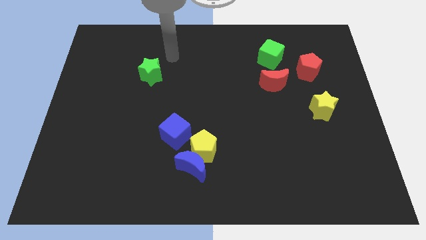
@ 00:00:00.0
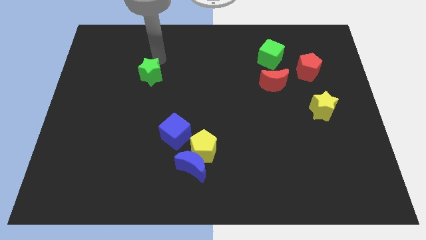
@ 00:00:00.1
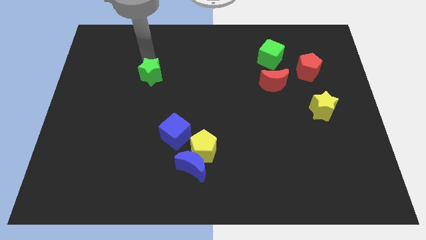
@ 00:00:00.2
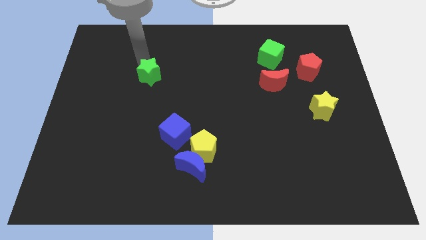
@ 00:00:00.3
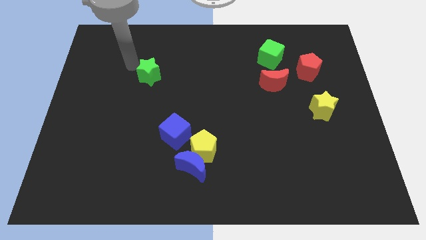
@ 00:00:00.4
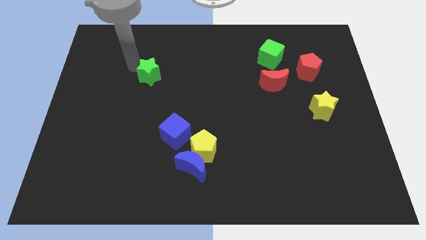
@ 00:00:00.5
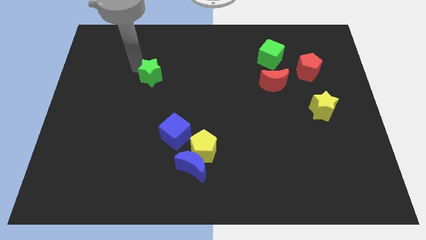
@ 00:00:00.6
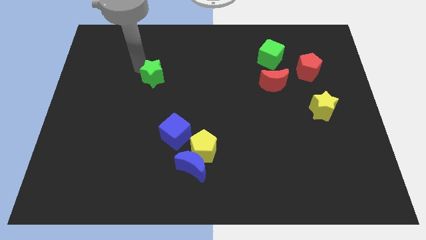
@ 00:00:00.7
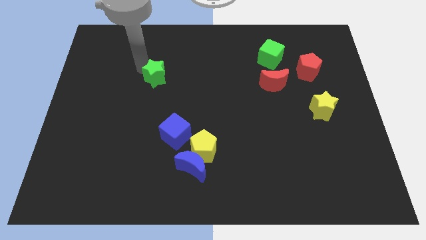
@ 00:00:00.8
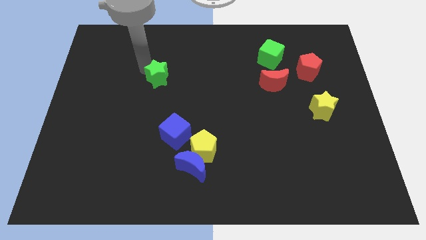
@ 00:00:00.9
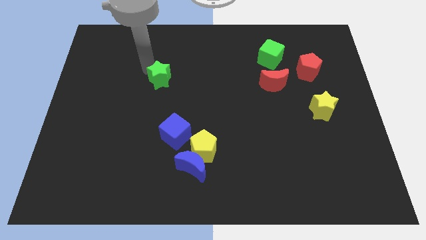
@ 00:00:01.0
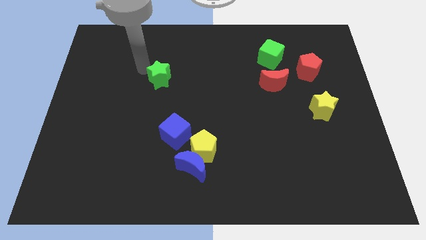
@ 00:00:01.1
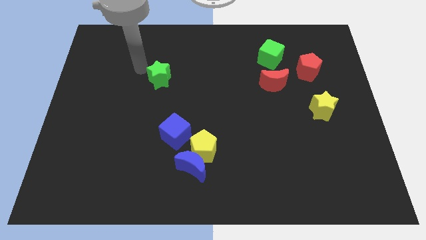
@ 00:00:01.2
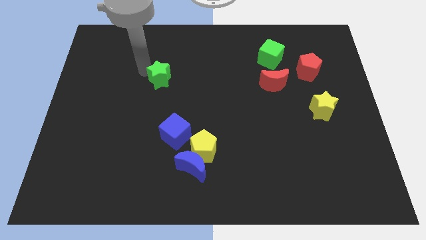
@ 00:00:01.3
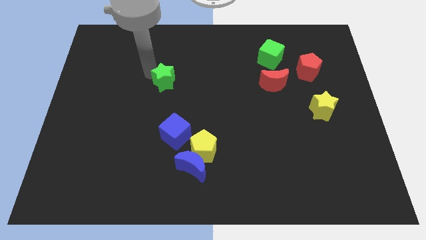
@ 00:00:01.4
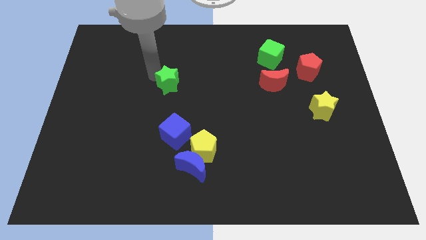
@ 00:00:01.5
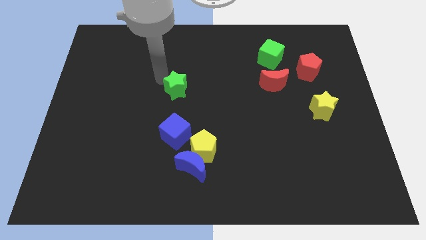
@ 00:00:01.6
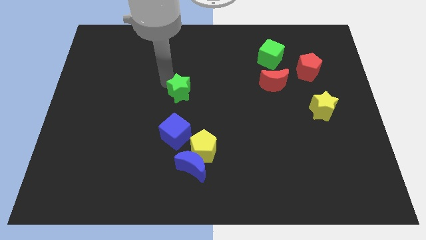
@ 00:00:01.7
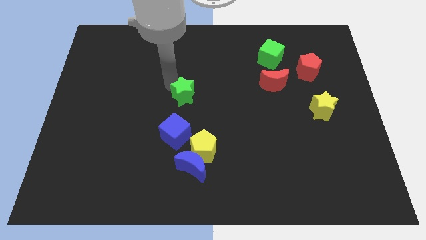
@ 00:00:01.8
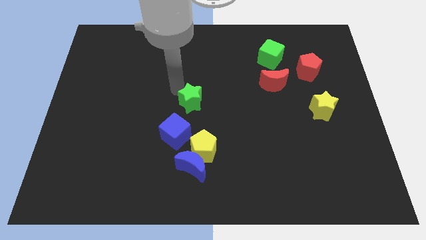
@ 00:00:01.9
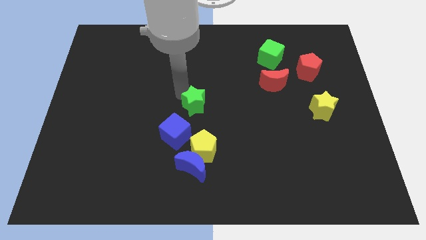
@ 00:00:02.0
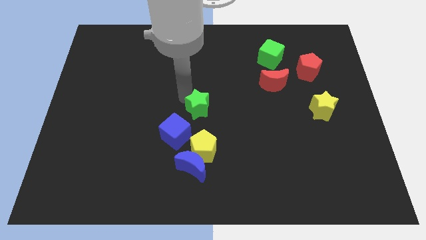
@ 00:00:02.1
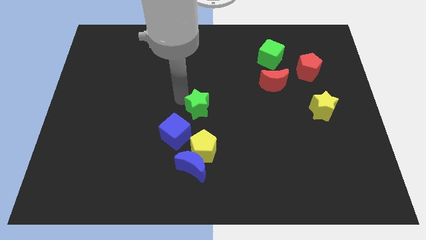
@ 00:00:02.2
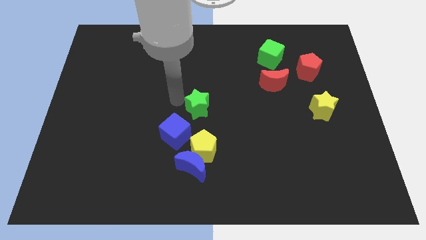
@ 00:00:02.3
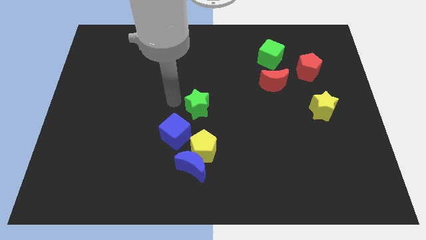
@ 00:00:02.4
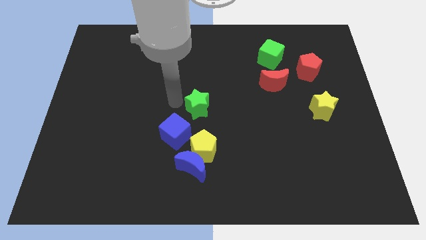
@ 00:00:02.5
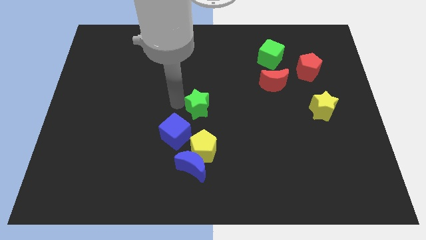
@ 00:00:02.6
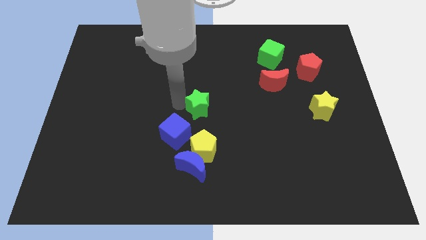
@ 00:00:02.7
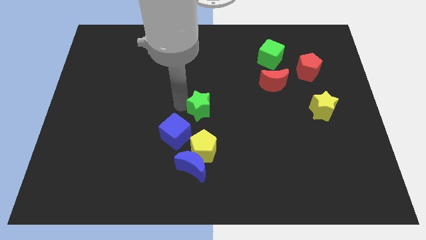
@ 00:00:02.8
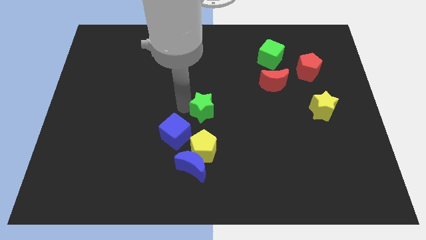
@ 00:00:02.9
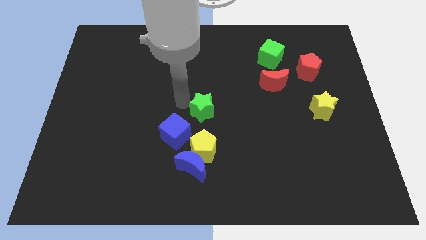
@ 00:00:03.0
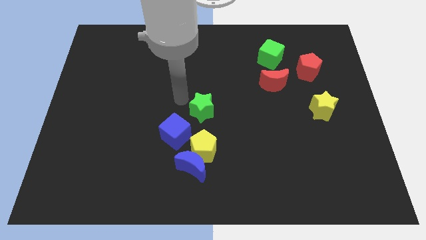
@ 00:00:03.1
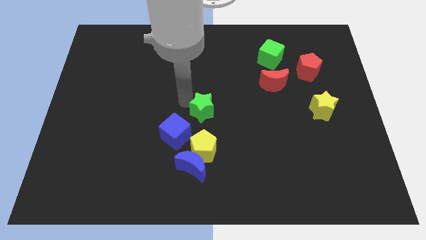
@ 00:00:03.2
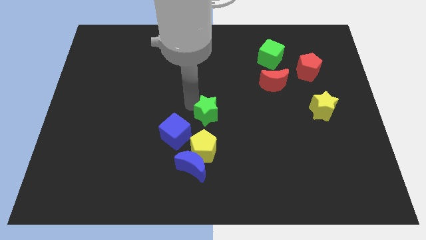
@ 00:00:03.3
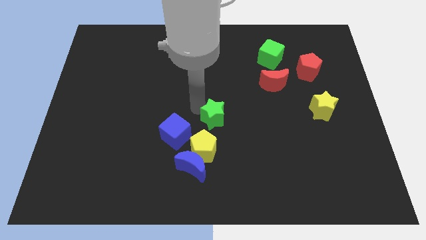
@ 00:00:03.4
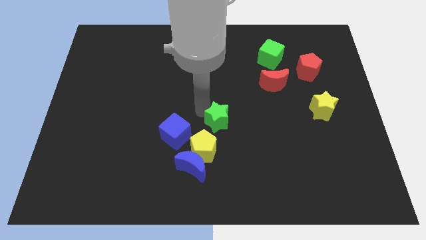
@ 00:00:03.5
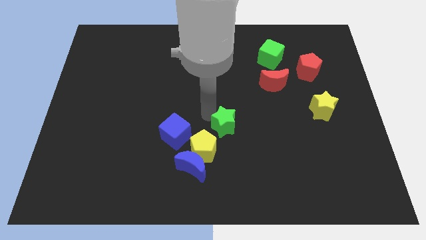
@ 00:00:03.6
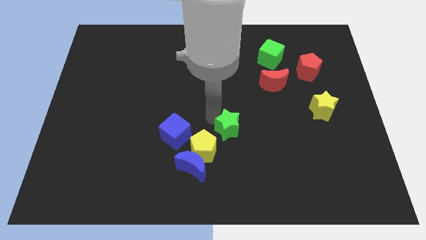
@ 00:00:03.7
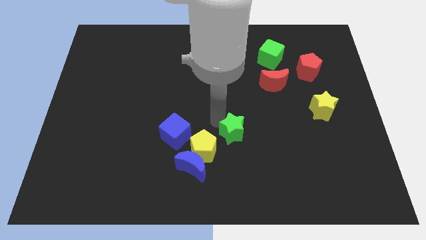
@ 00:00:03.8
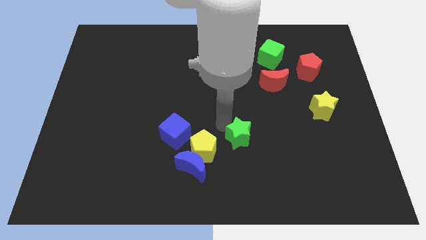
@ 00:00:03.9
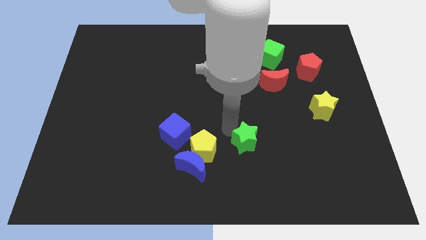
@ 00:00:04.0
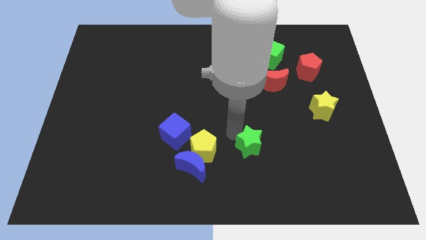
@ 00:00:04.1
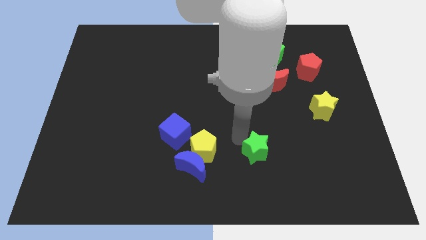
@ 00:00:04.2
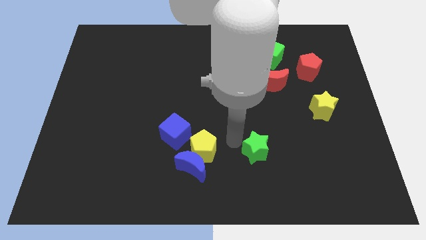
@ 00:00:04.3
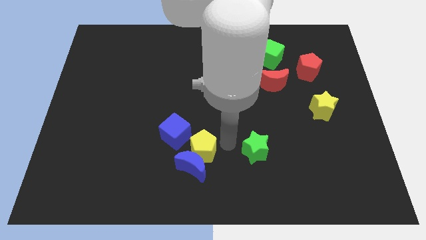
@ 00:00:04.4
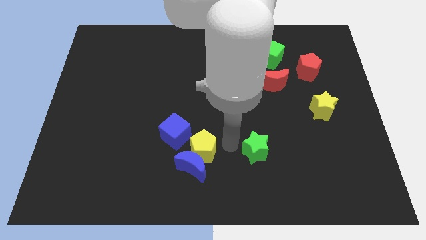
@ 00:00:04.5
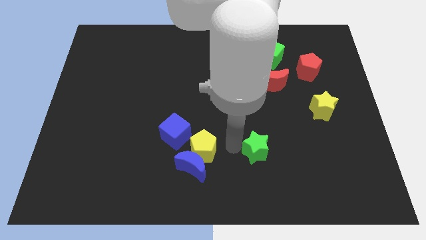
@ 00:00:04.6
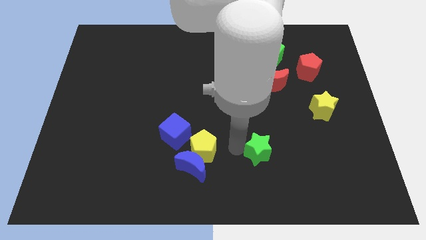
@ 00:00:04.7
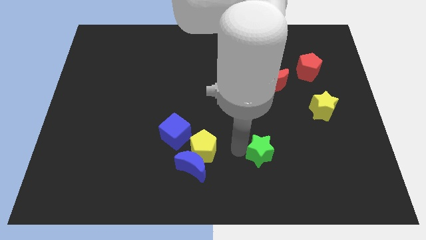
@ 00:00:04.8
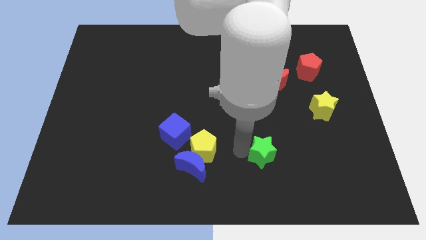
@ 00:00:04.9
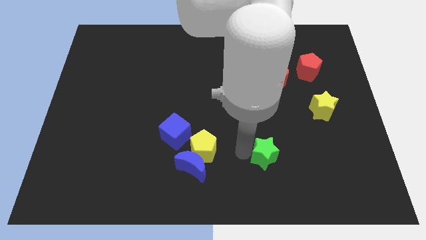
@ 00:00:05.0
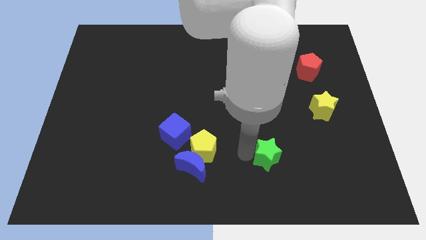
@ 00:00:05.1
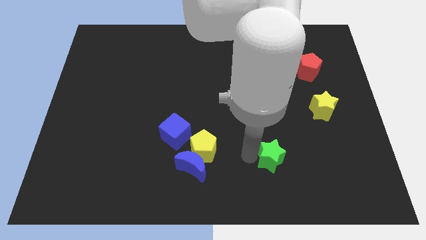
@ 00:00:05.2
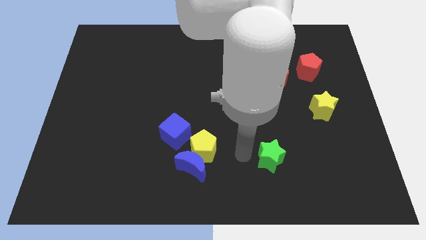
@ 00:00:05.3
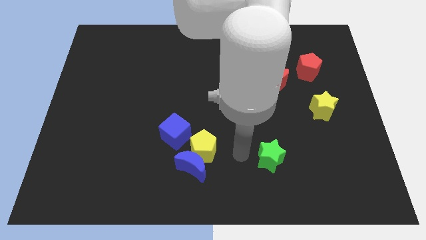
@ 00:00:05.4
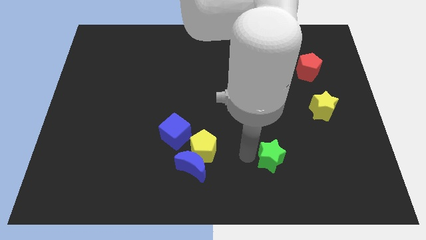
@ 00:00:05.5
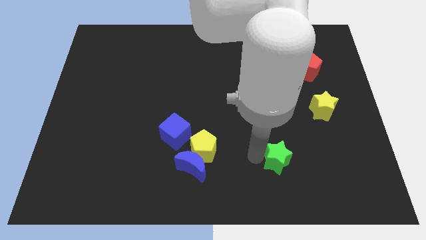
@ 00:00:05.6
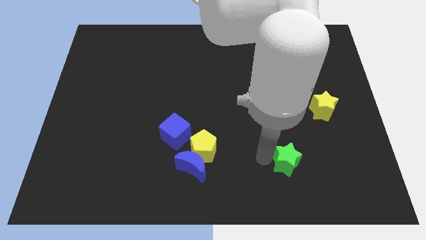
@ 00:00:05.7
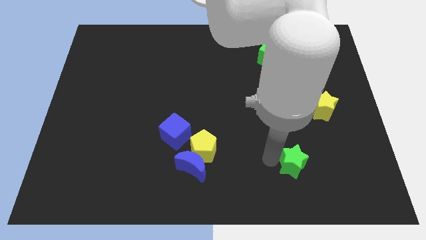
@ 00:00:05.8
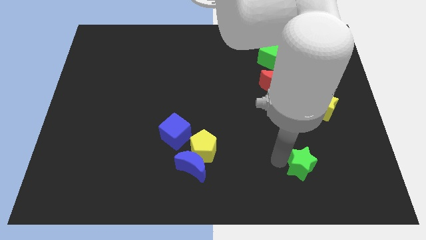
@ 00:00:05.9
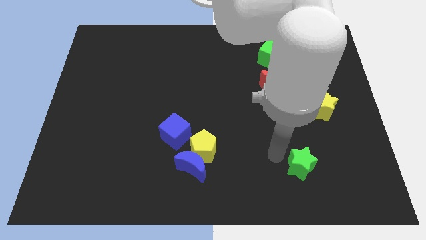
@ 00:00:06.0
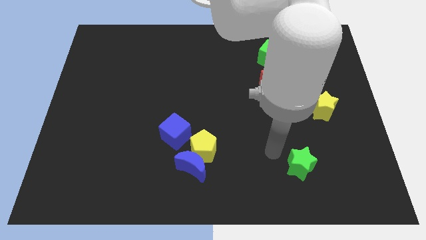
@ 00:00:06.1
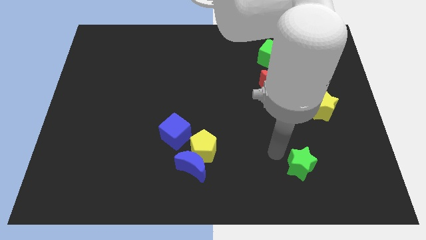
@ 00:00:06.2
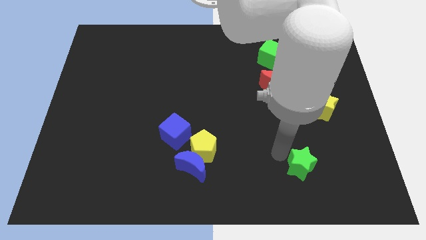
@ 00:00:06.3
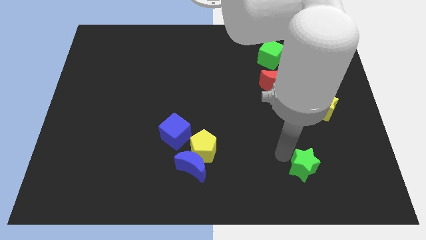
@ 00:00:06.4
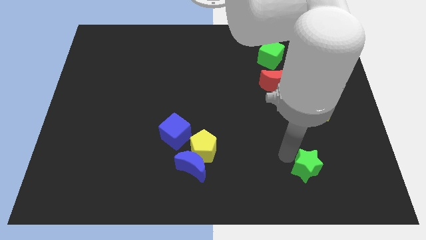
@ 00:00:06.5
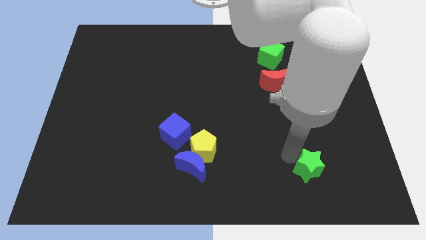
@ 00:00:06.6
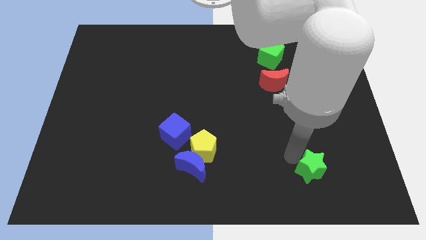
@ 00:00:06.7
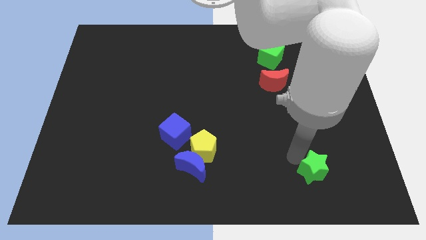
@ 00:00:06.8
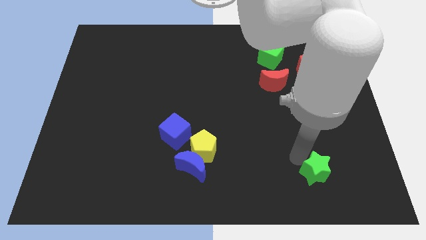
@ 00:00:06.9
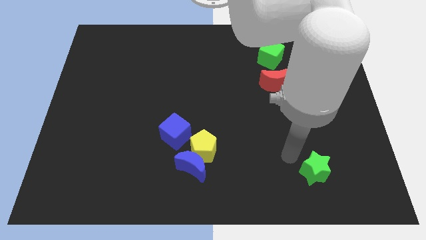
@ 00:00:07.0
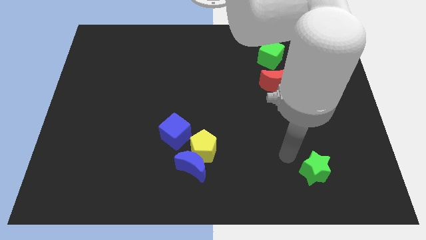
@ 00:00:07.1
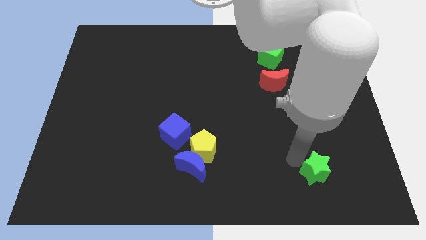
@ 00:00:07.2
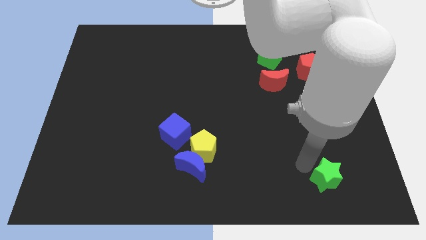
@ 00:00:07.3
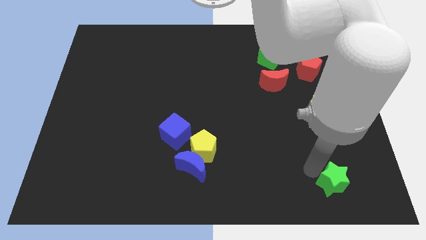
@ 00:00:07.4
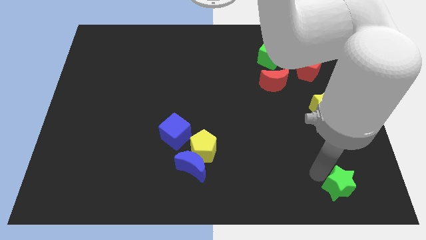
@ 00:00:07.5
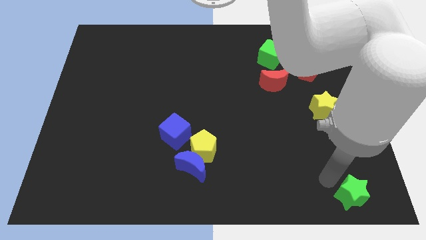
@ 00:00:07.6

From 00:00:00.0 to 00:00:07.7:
slide the green star to the bottom right corner
